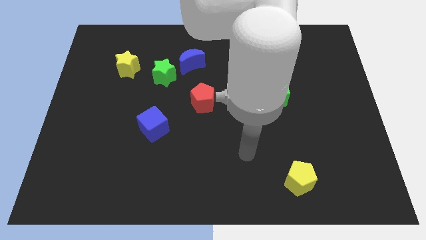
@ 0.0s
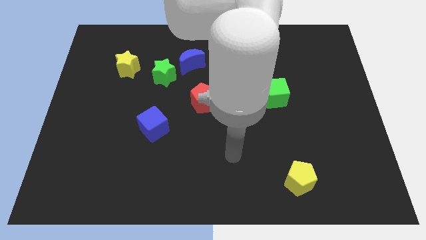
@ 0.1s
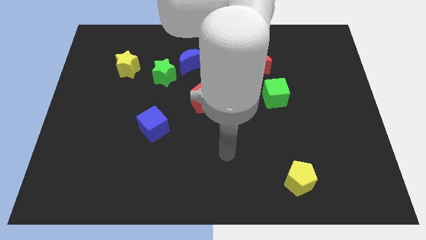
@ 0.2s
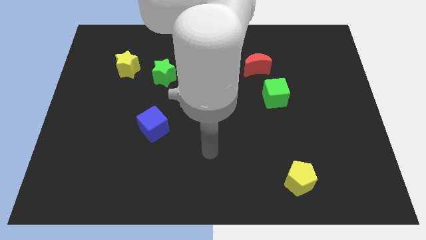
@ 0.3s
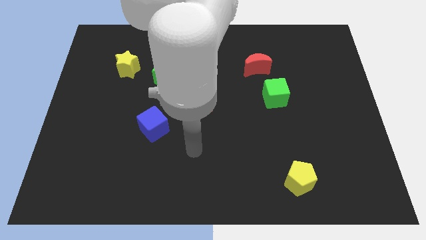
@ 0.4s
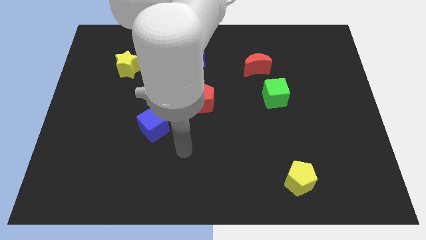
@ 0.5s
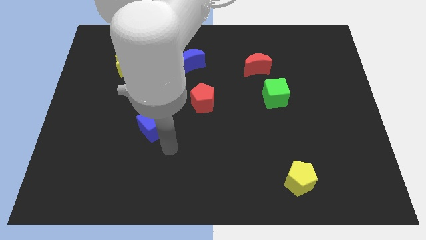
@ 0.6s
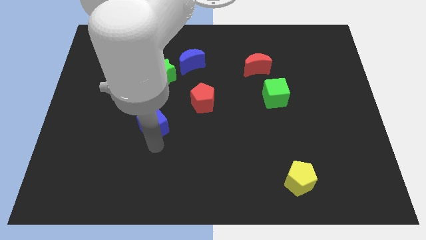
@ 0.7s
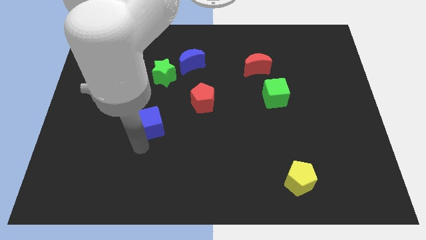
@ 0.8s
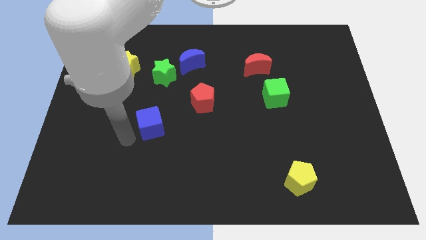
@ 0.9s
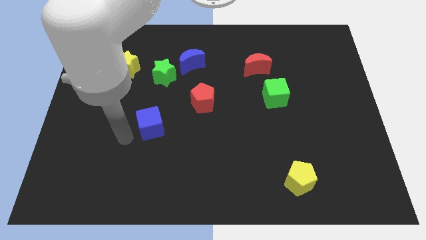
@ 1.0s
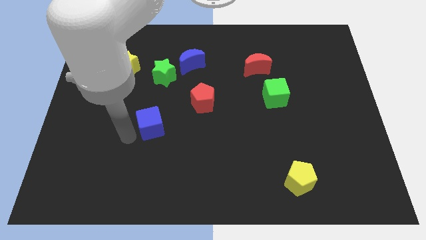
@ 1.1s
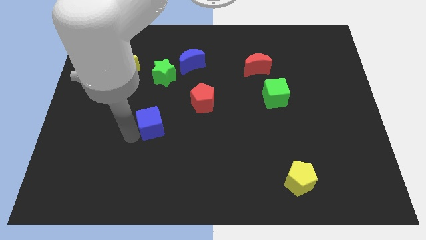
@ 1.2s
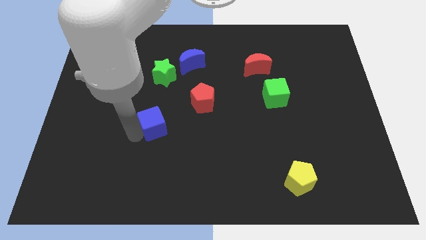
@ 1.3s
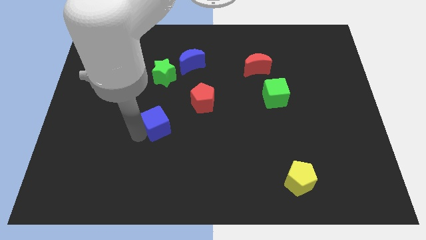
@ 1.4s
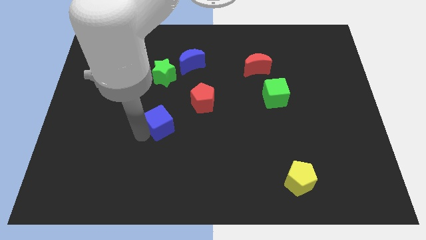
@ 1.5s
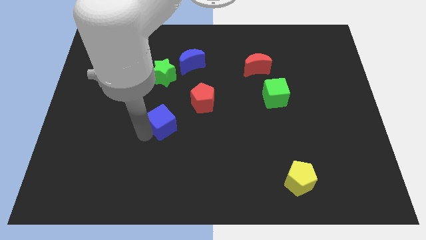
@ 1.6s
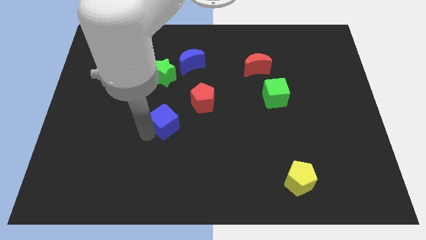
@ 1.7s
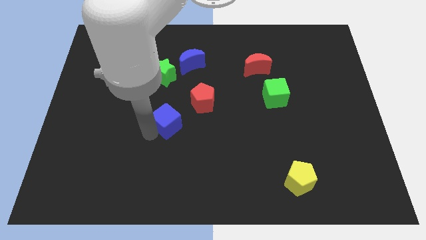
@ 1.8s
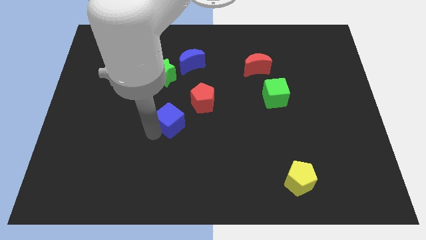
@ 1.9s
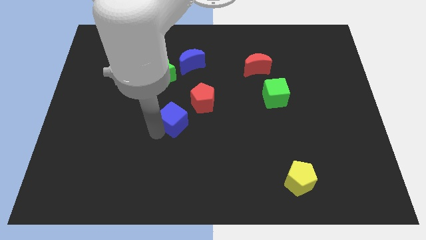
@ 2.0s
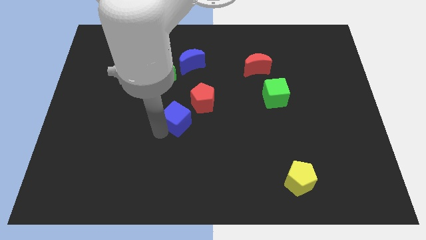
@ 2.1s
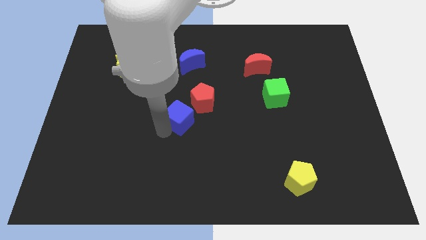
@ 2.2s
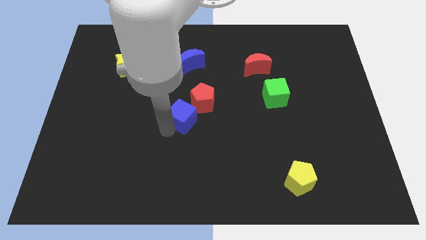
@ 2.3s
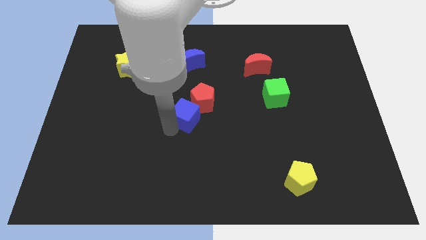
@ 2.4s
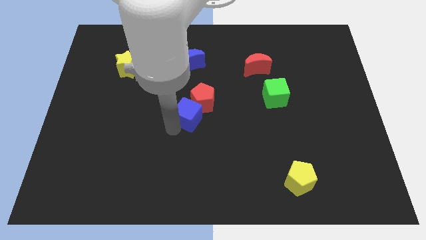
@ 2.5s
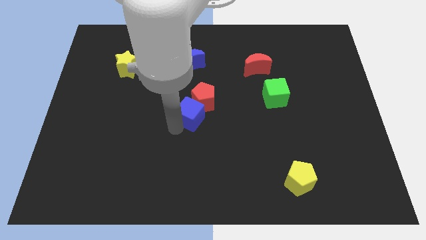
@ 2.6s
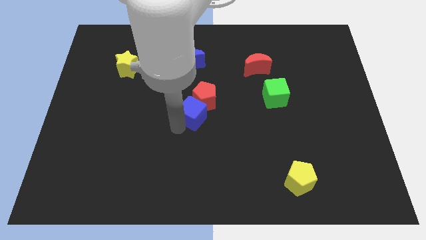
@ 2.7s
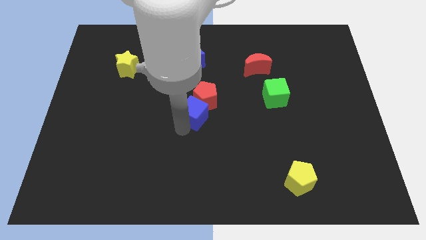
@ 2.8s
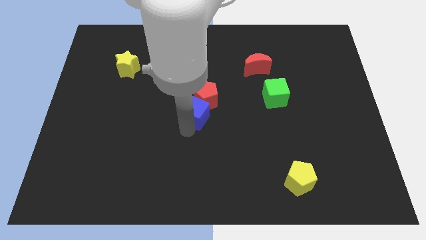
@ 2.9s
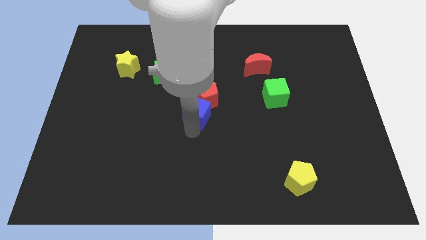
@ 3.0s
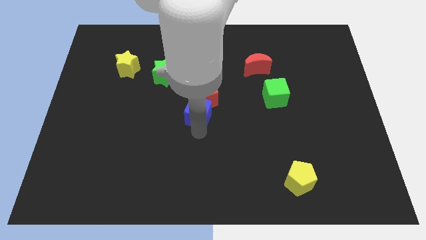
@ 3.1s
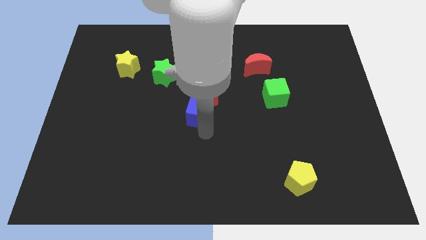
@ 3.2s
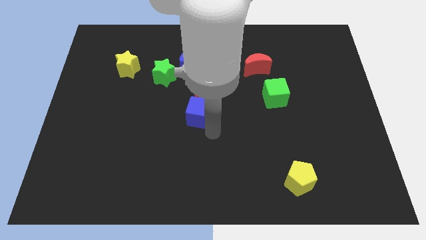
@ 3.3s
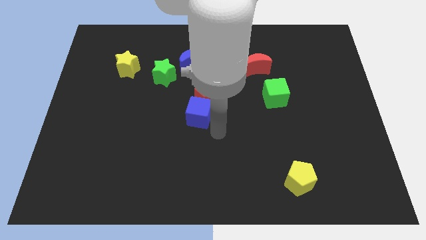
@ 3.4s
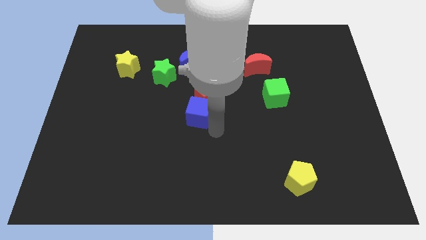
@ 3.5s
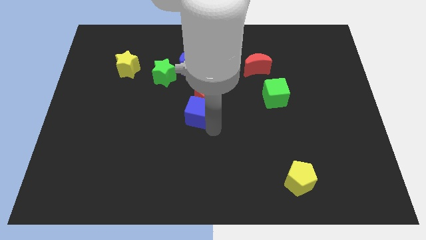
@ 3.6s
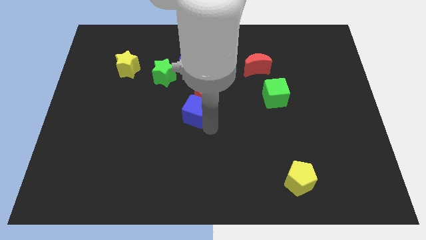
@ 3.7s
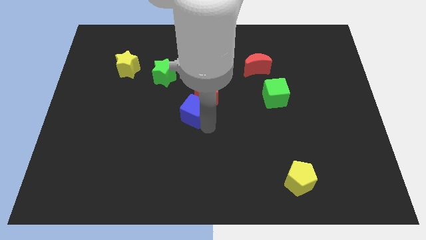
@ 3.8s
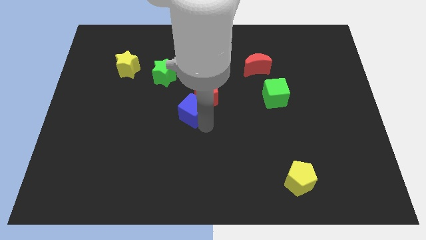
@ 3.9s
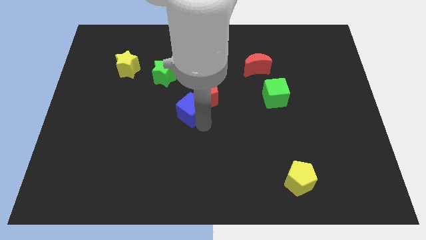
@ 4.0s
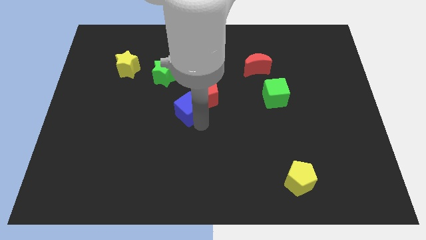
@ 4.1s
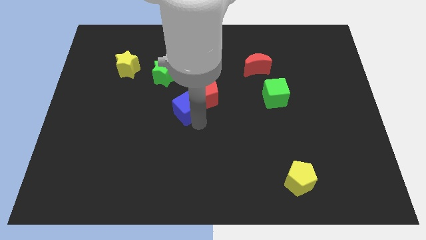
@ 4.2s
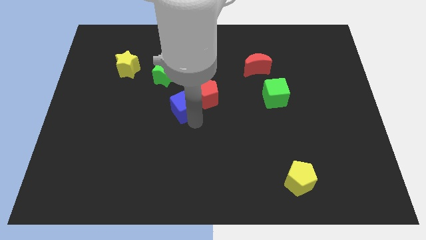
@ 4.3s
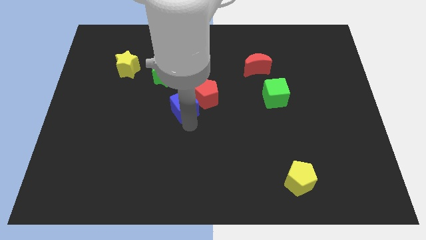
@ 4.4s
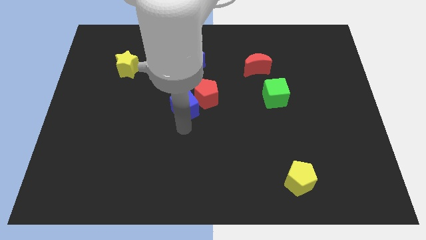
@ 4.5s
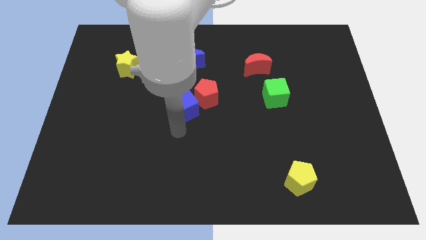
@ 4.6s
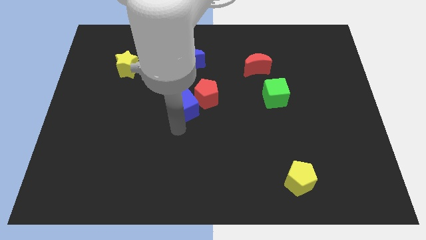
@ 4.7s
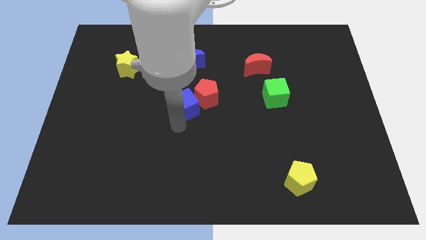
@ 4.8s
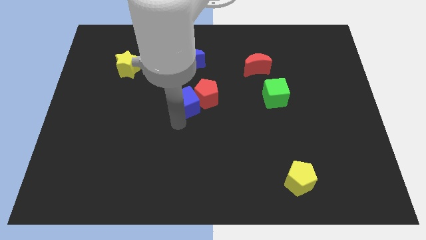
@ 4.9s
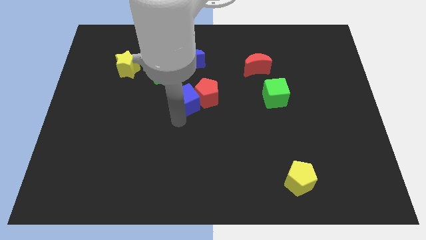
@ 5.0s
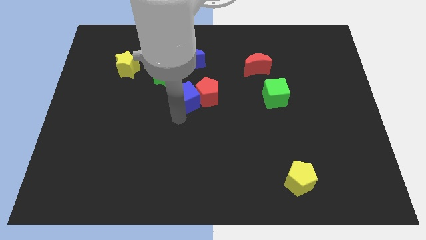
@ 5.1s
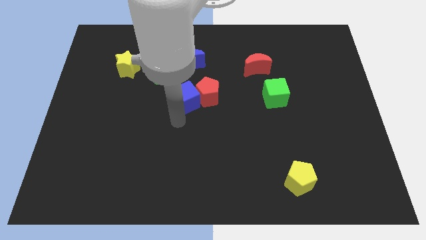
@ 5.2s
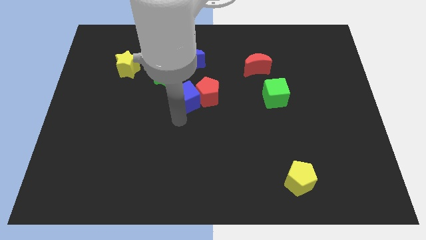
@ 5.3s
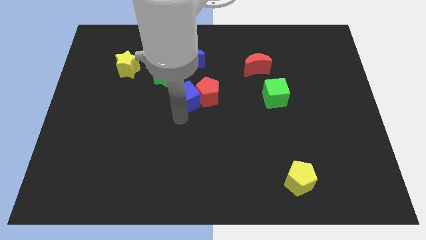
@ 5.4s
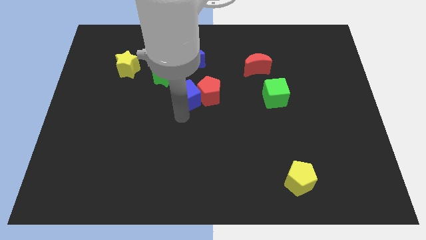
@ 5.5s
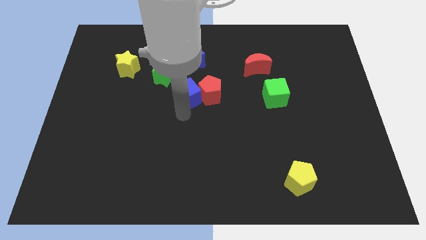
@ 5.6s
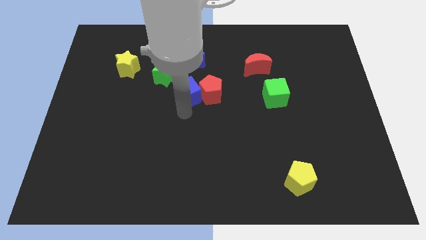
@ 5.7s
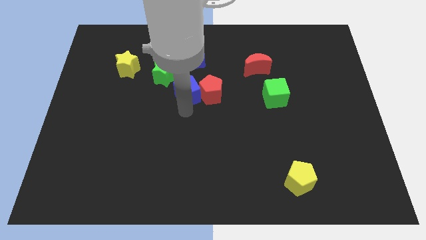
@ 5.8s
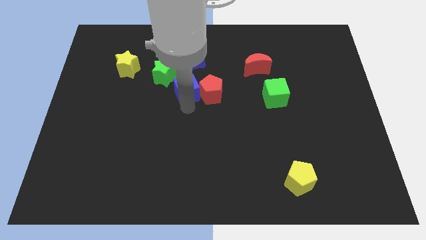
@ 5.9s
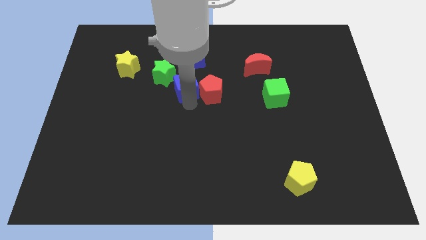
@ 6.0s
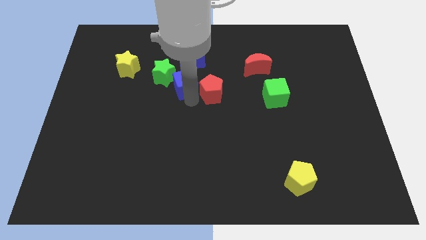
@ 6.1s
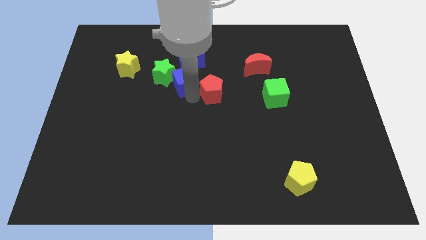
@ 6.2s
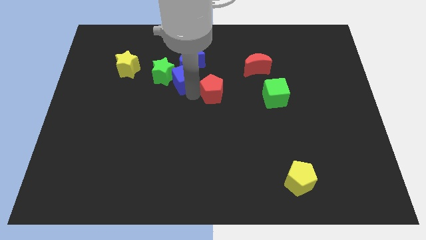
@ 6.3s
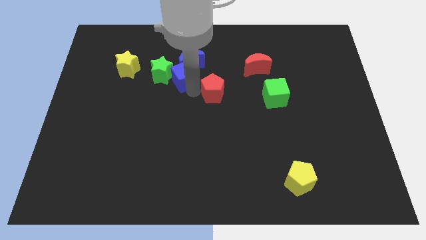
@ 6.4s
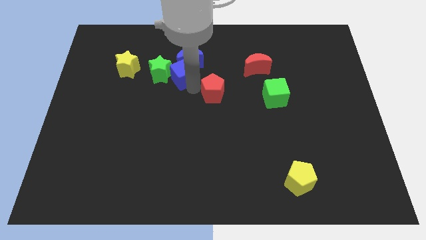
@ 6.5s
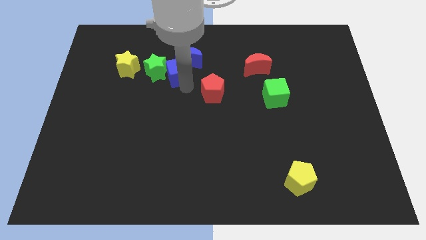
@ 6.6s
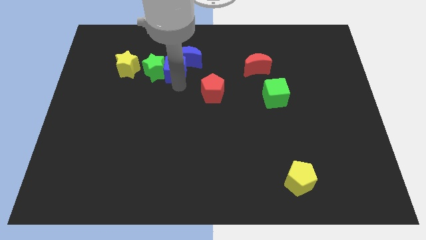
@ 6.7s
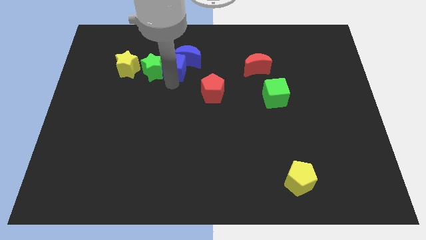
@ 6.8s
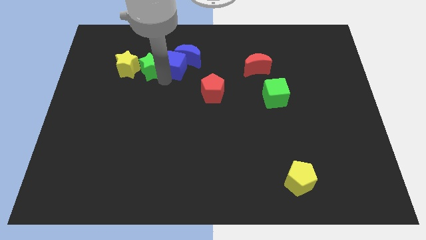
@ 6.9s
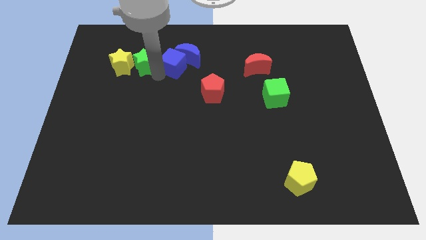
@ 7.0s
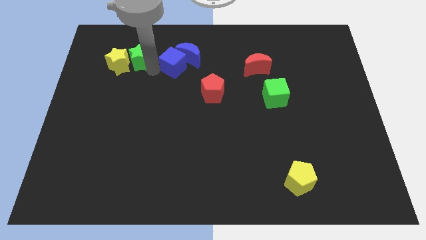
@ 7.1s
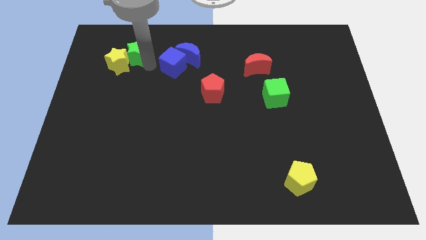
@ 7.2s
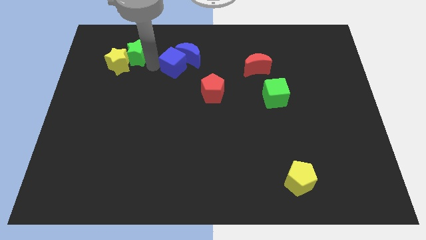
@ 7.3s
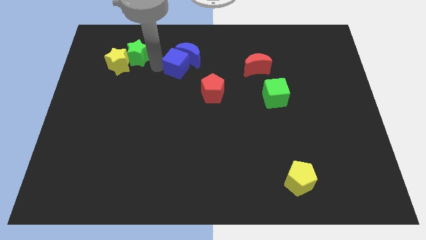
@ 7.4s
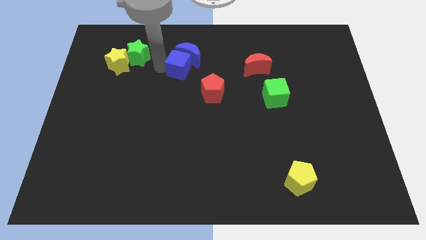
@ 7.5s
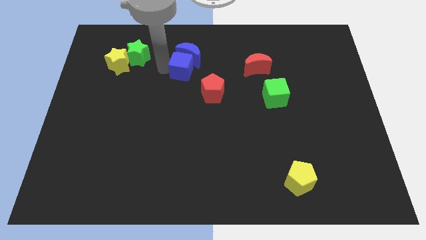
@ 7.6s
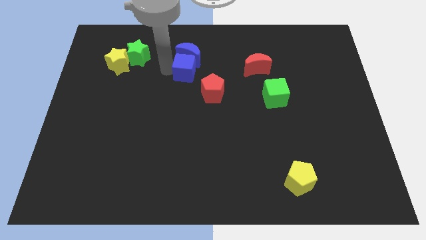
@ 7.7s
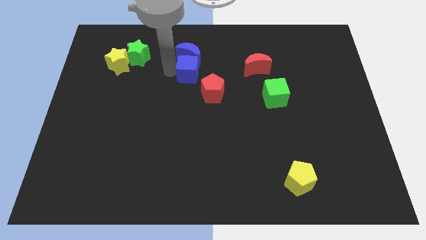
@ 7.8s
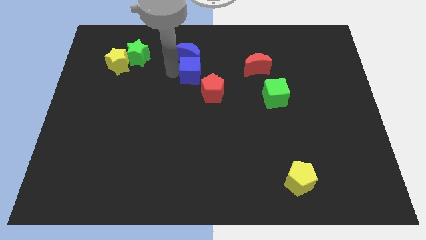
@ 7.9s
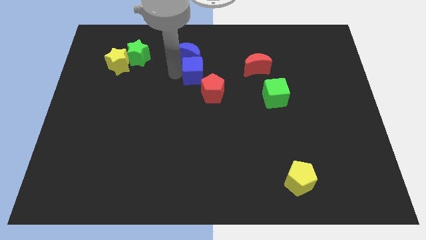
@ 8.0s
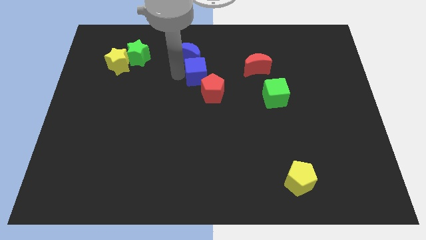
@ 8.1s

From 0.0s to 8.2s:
move the blue cube just left of the red moon
